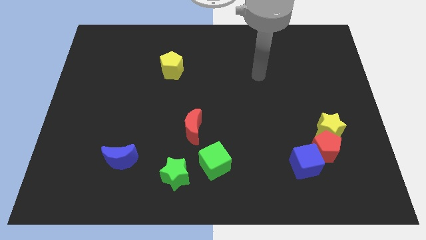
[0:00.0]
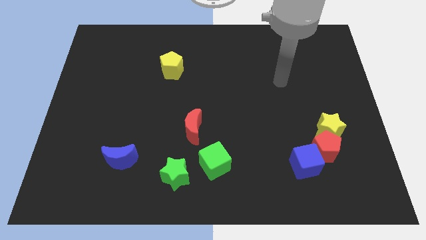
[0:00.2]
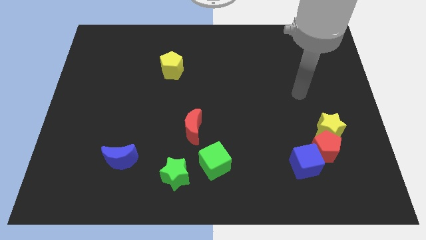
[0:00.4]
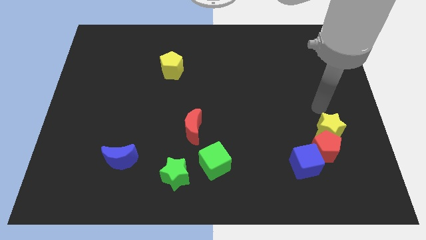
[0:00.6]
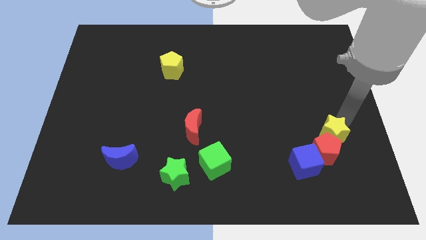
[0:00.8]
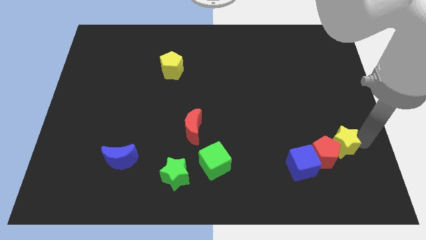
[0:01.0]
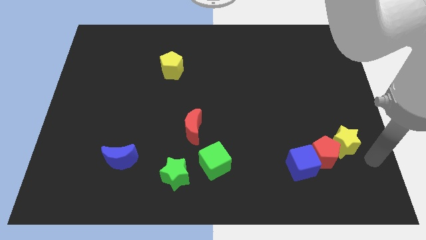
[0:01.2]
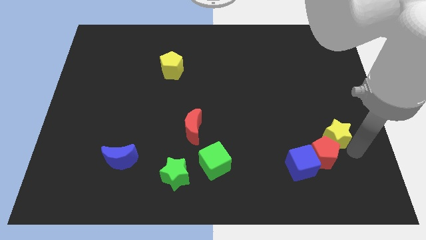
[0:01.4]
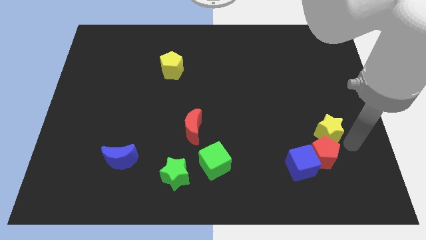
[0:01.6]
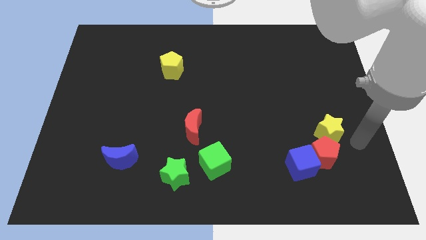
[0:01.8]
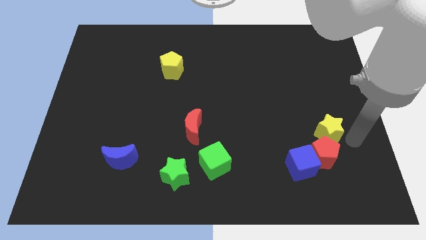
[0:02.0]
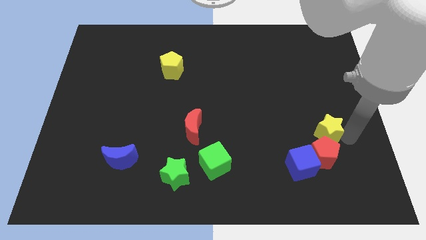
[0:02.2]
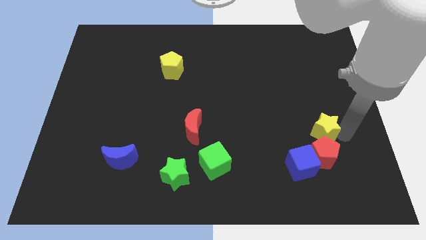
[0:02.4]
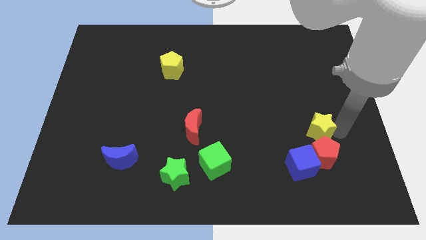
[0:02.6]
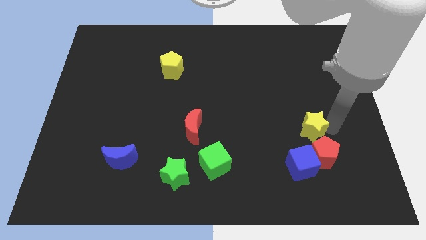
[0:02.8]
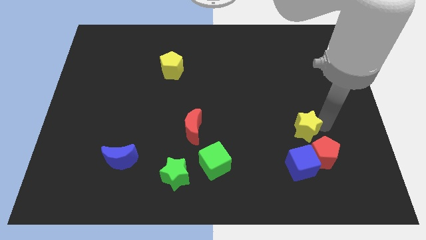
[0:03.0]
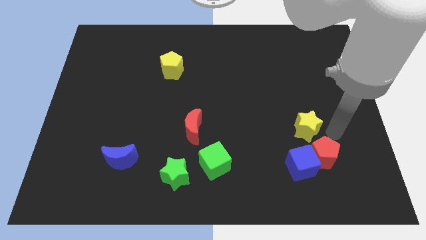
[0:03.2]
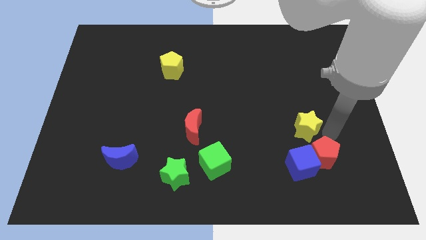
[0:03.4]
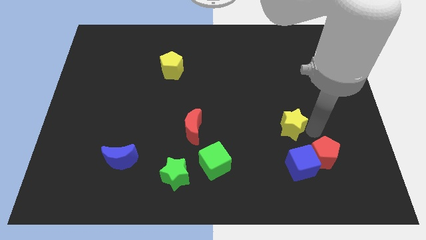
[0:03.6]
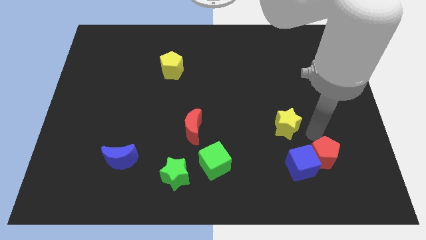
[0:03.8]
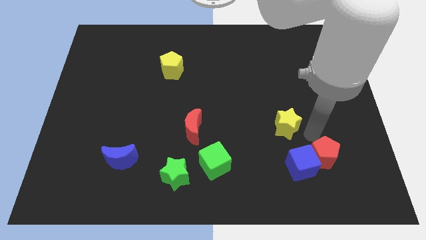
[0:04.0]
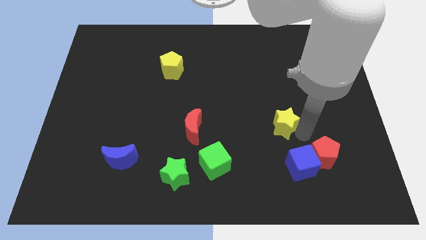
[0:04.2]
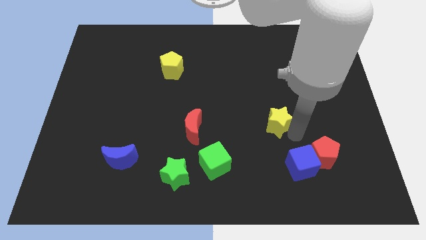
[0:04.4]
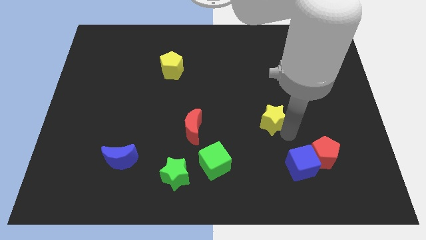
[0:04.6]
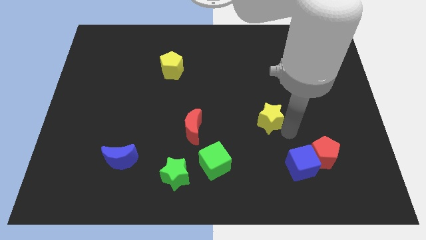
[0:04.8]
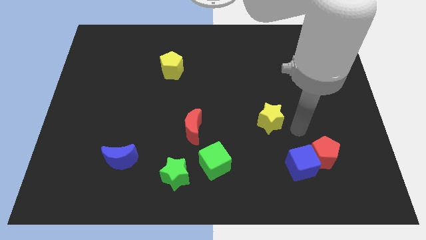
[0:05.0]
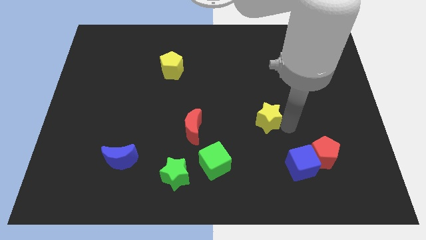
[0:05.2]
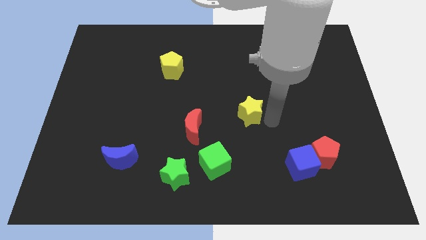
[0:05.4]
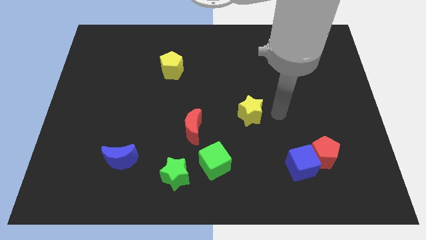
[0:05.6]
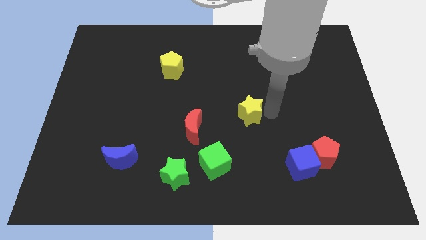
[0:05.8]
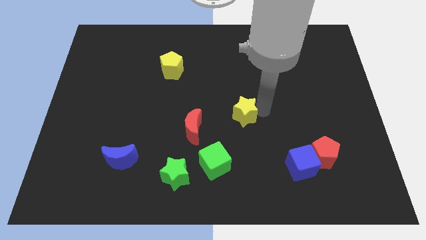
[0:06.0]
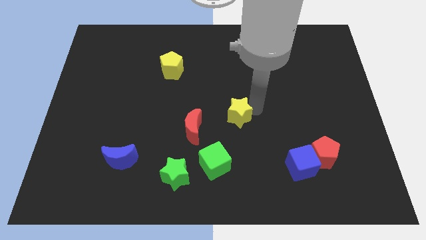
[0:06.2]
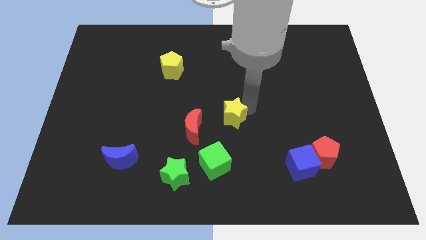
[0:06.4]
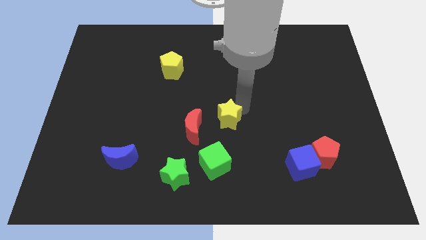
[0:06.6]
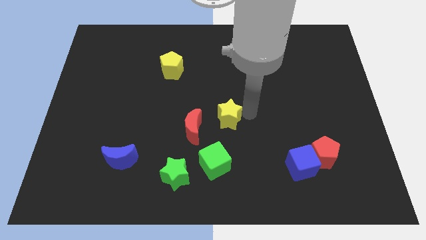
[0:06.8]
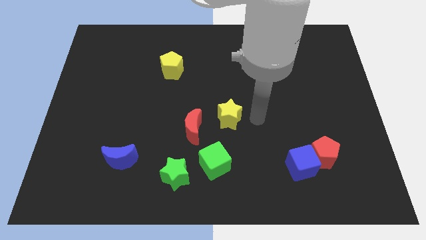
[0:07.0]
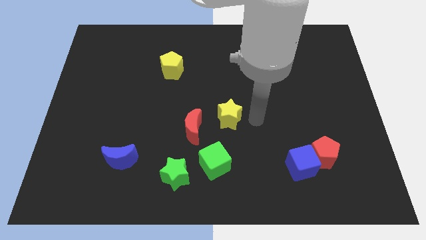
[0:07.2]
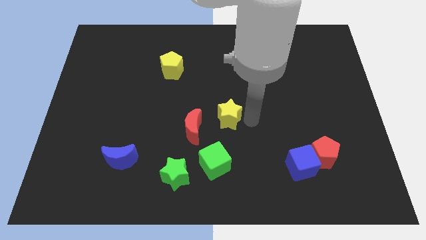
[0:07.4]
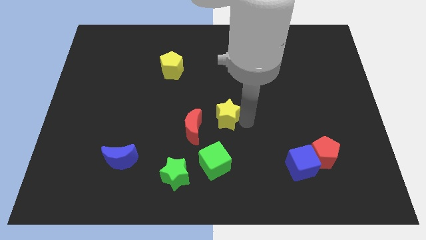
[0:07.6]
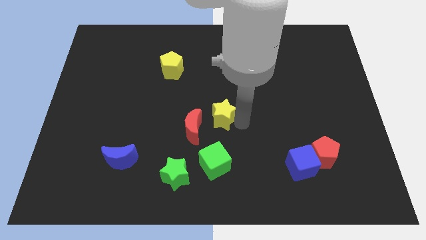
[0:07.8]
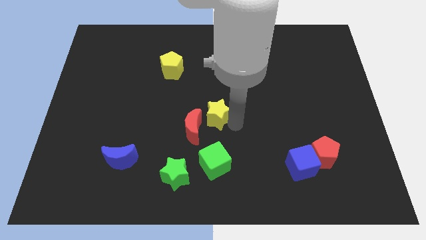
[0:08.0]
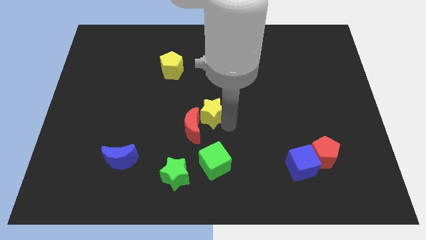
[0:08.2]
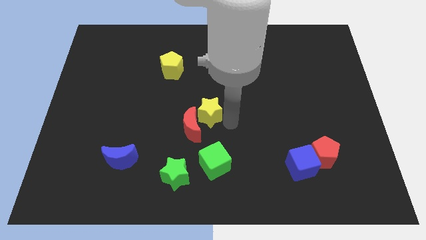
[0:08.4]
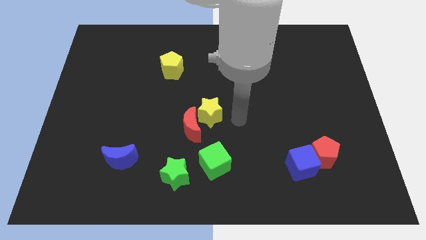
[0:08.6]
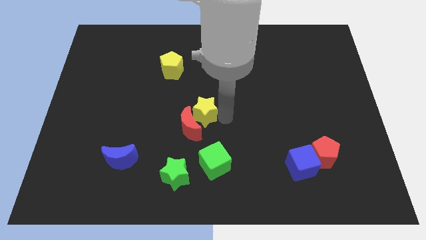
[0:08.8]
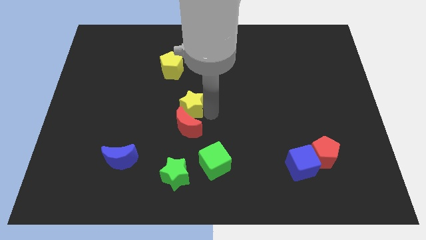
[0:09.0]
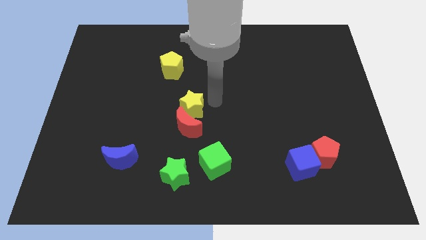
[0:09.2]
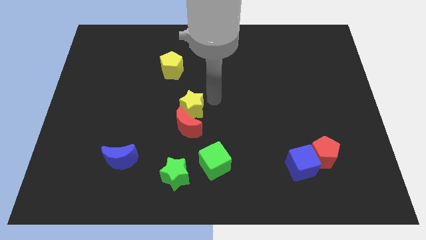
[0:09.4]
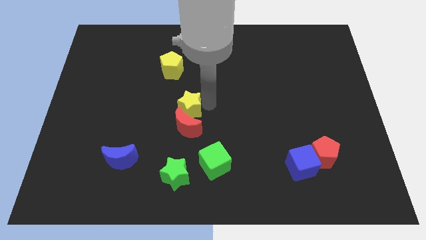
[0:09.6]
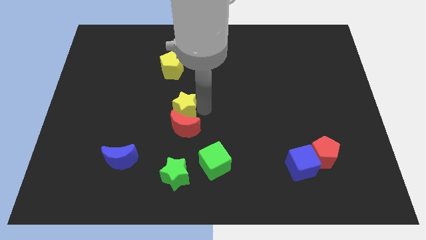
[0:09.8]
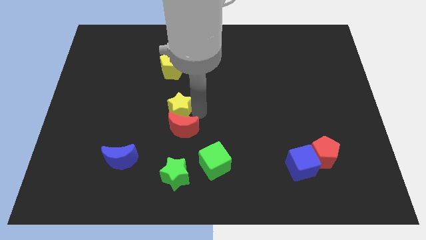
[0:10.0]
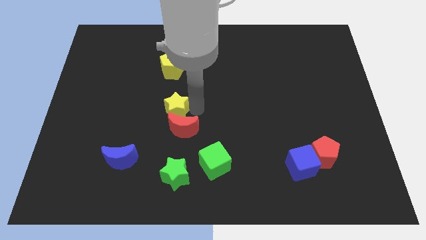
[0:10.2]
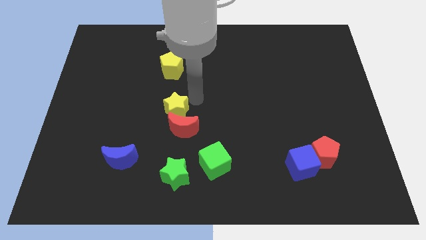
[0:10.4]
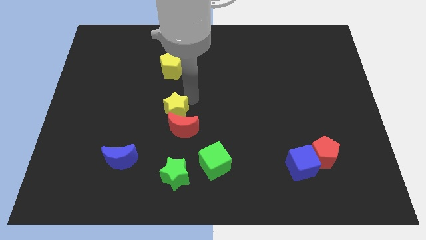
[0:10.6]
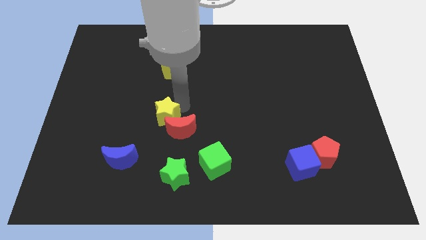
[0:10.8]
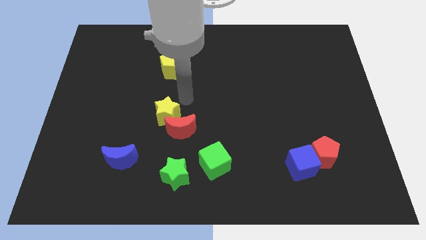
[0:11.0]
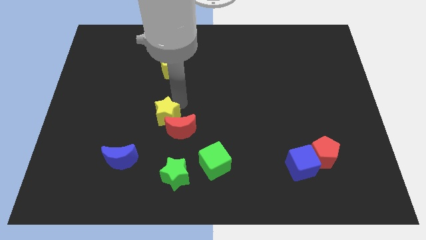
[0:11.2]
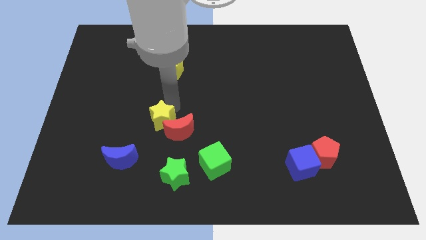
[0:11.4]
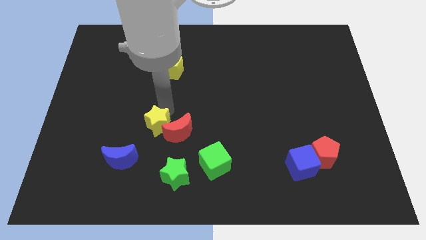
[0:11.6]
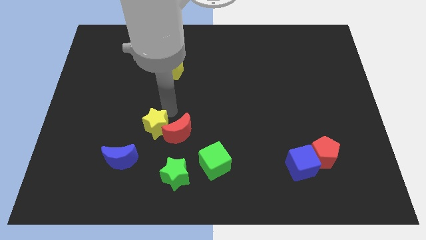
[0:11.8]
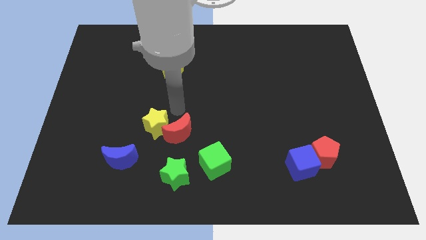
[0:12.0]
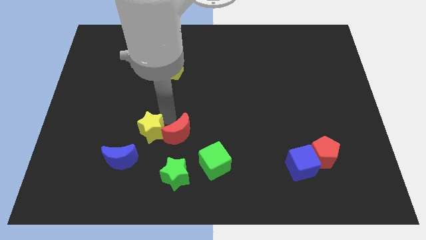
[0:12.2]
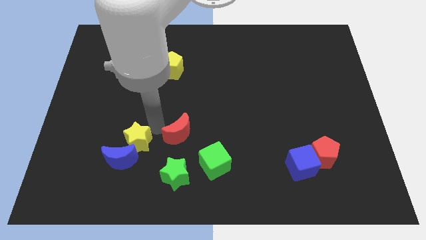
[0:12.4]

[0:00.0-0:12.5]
slide the yellow star towards the blue moon

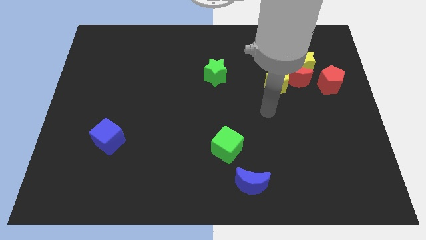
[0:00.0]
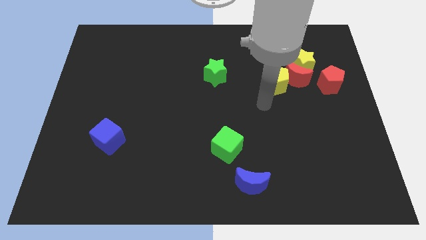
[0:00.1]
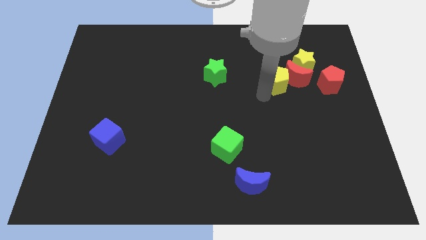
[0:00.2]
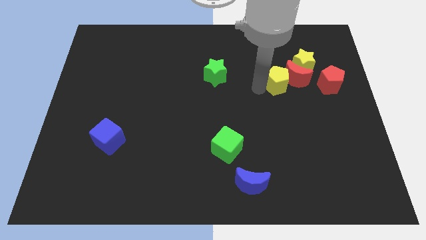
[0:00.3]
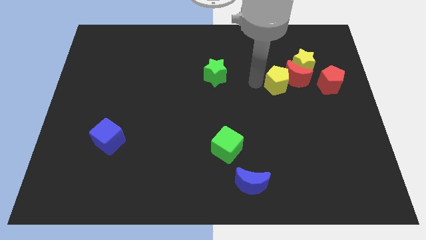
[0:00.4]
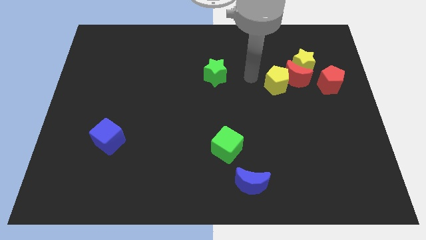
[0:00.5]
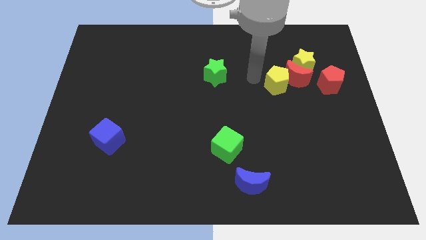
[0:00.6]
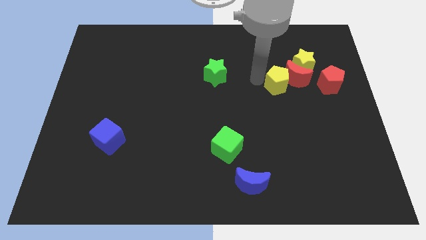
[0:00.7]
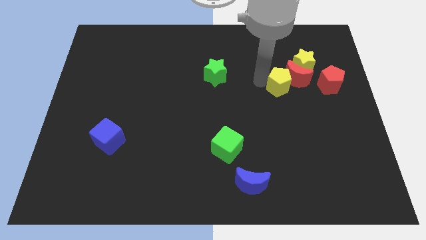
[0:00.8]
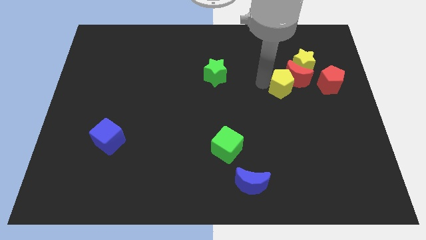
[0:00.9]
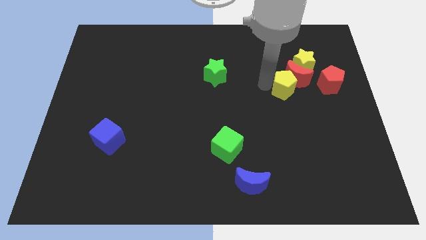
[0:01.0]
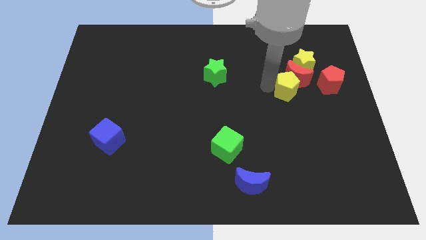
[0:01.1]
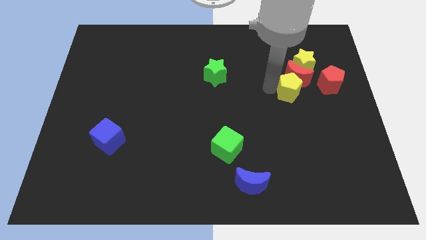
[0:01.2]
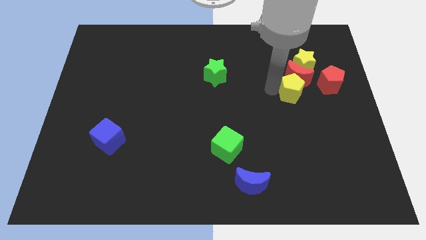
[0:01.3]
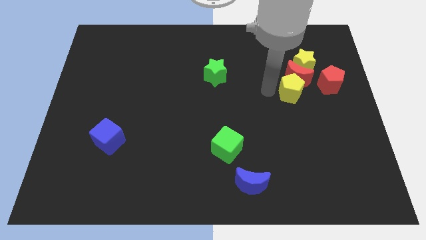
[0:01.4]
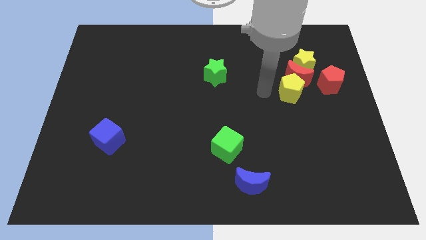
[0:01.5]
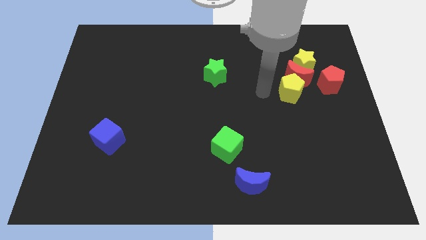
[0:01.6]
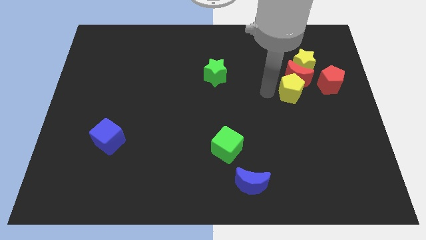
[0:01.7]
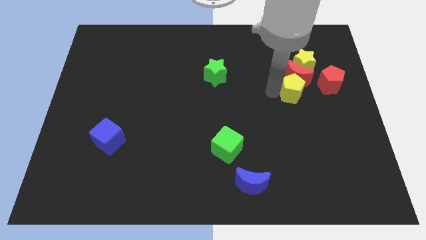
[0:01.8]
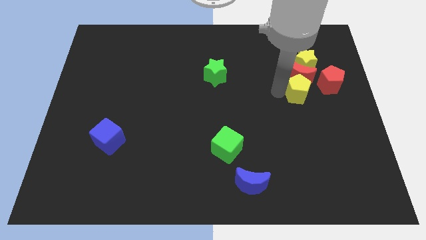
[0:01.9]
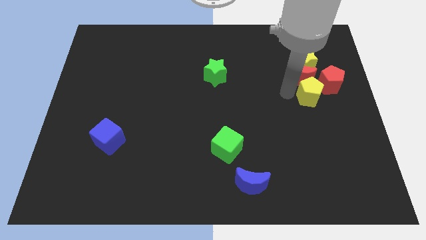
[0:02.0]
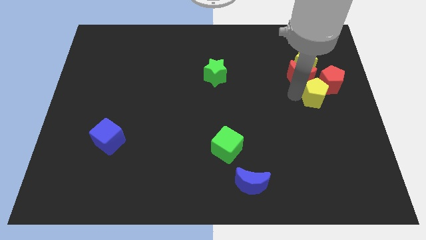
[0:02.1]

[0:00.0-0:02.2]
push the yellow pentagon next to the red pentagon
